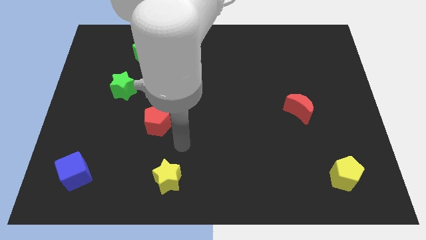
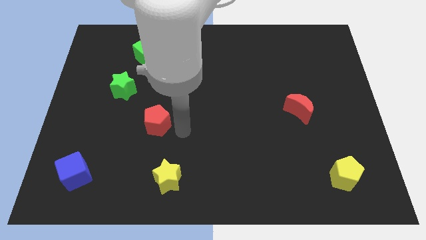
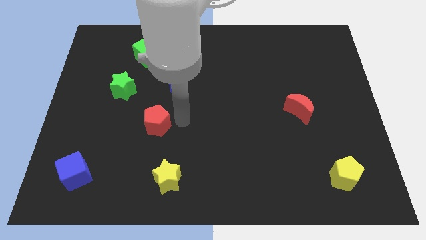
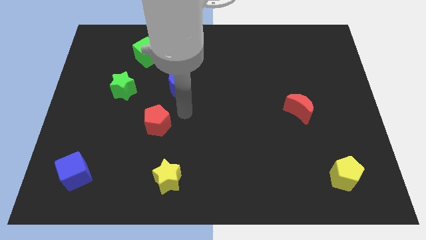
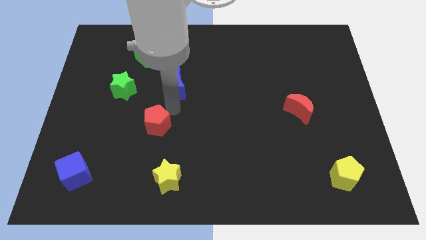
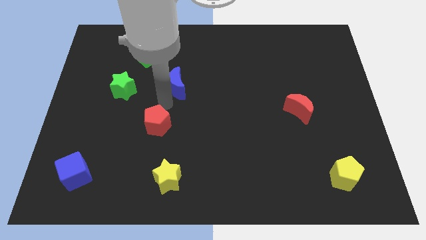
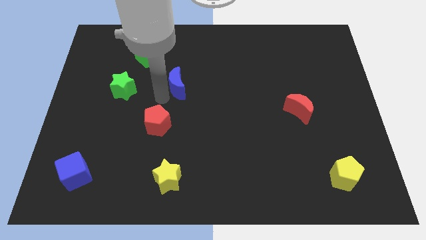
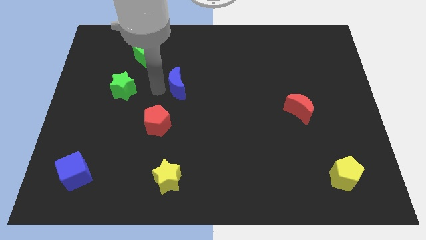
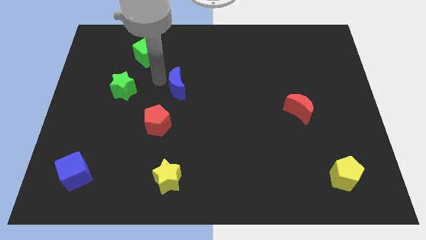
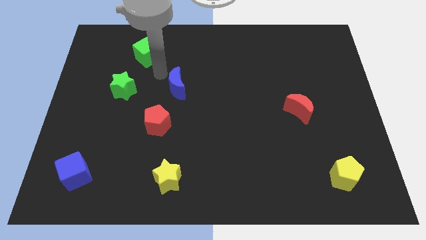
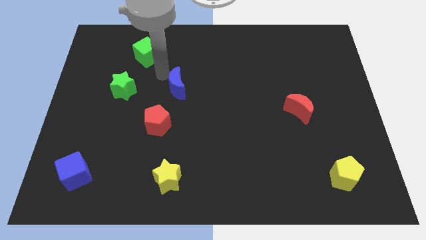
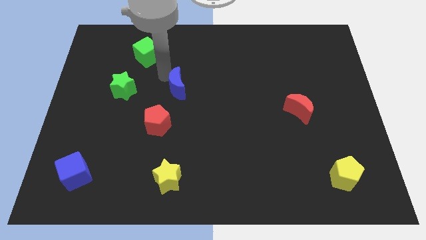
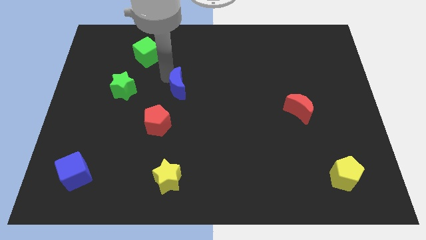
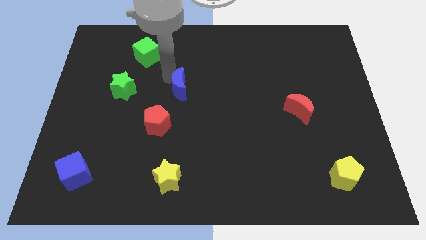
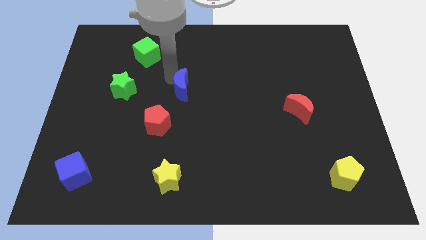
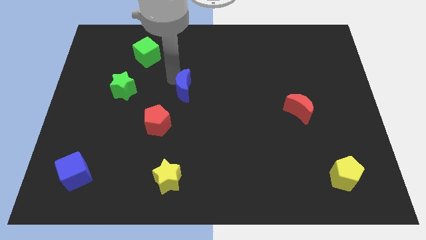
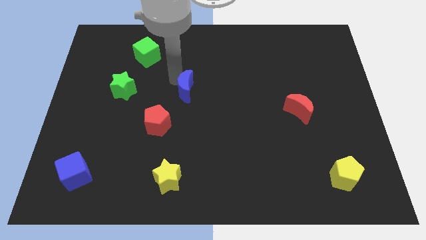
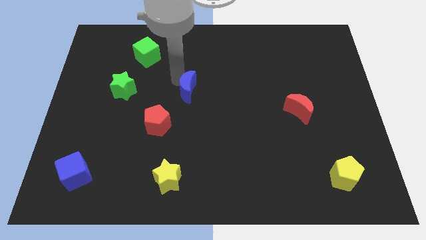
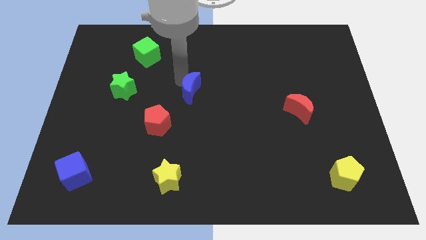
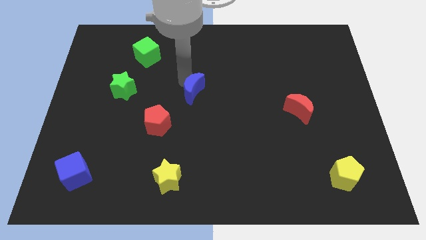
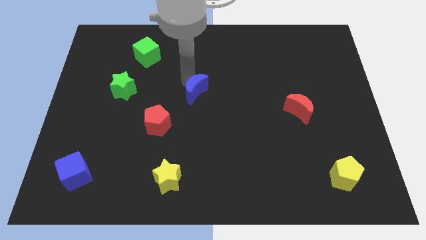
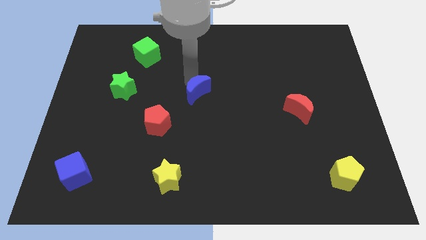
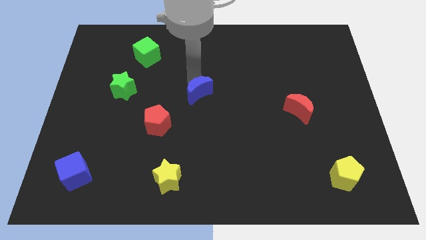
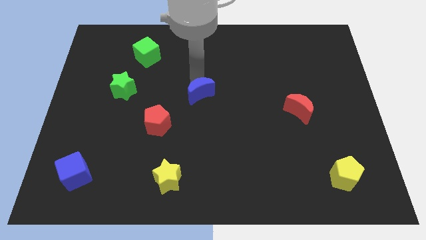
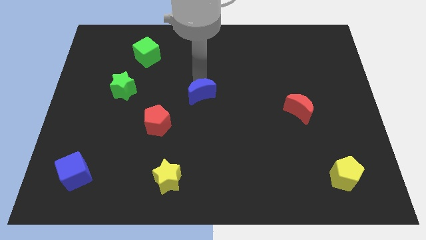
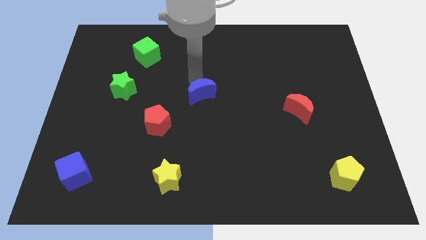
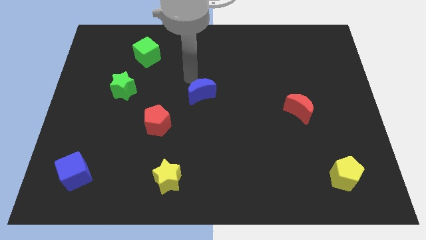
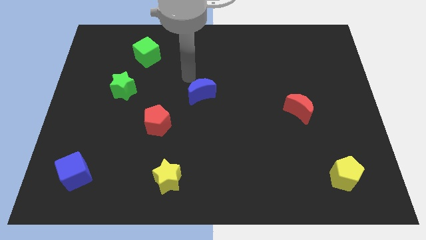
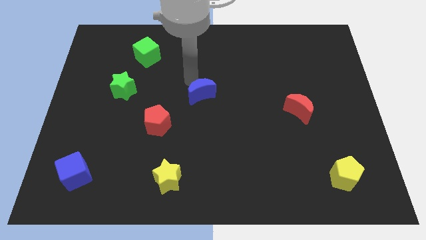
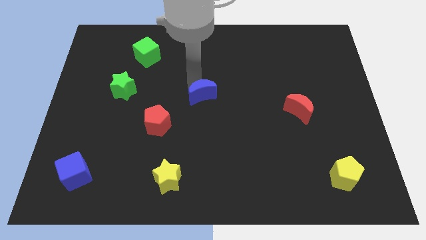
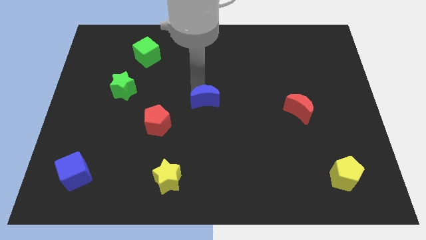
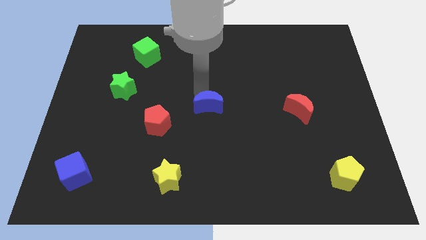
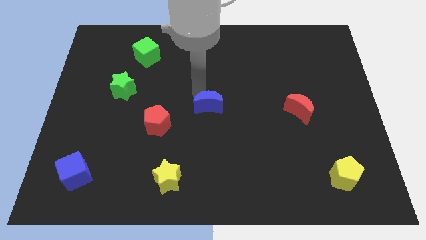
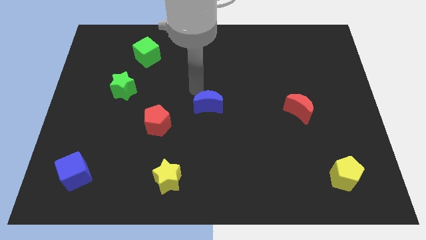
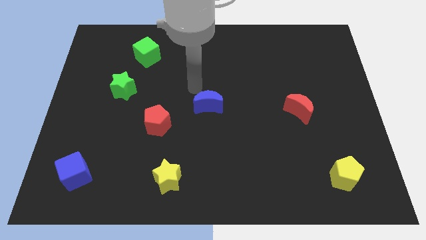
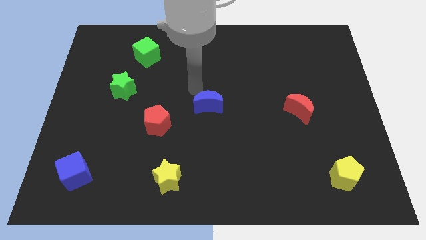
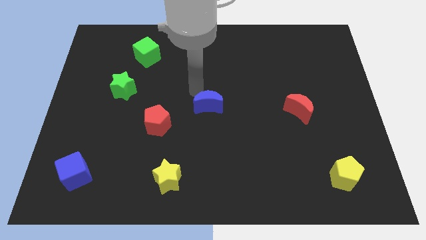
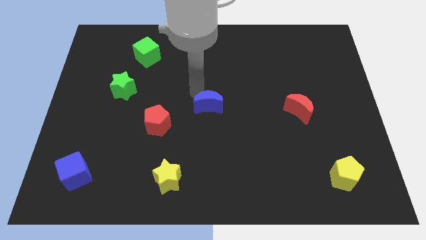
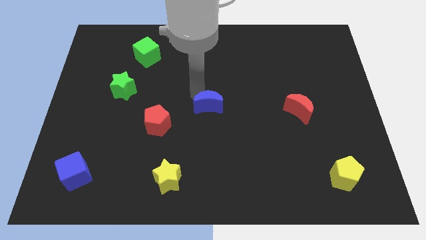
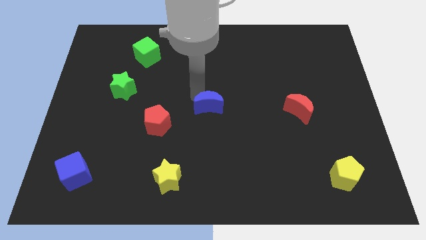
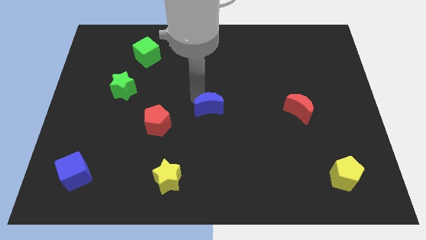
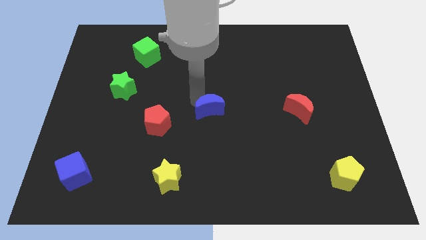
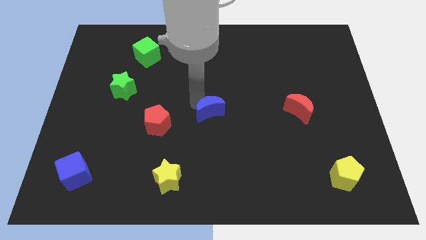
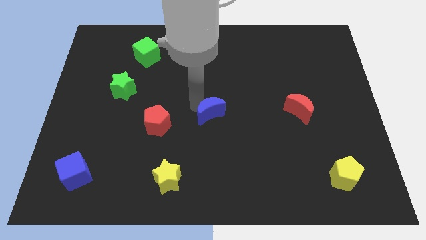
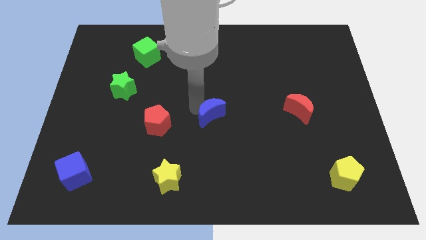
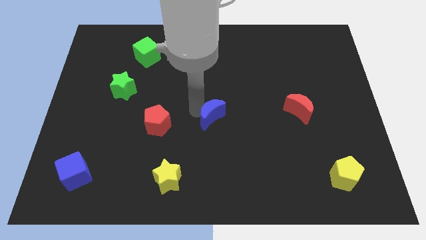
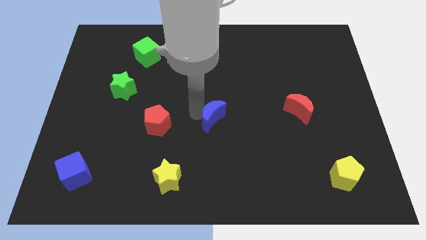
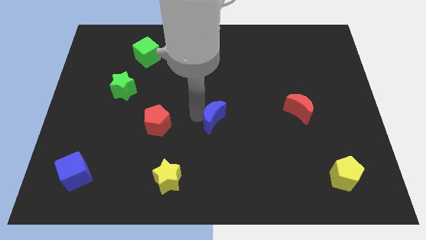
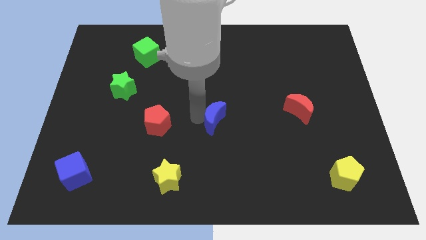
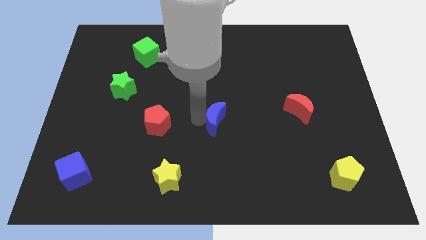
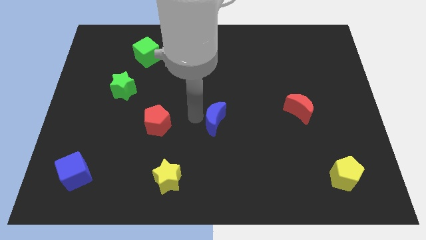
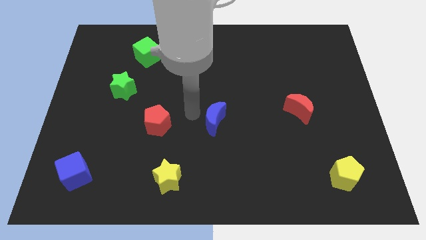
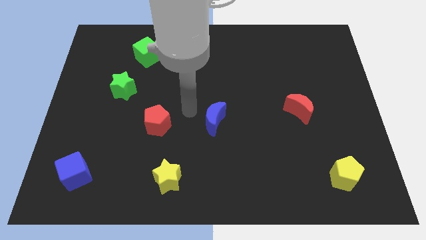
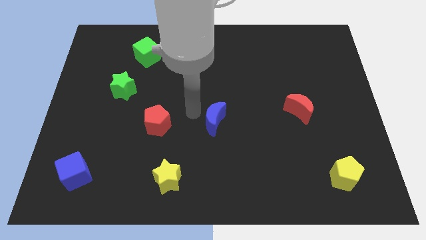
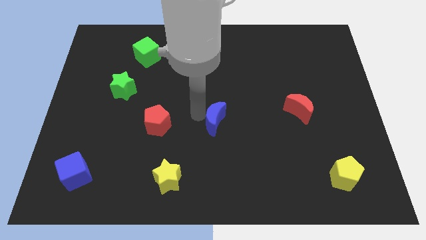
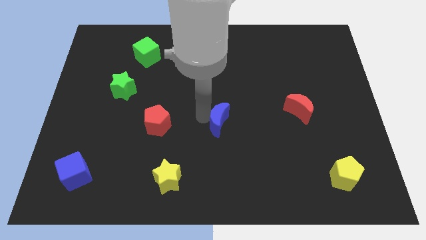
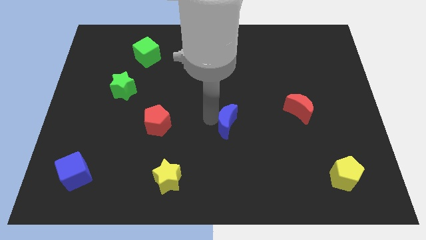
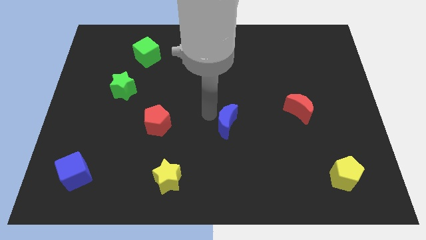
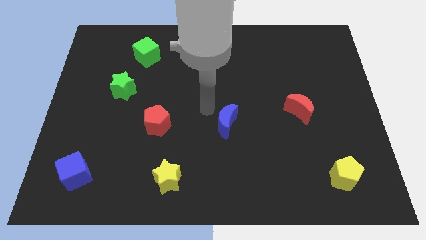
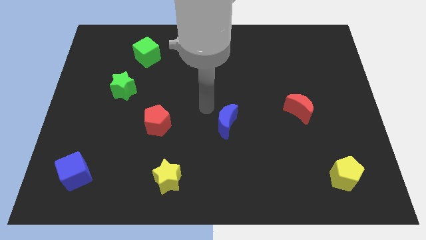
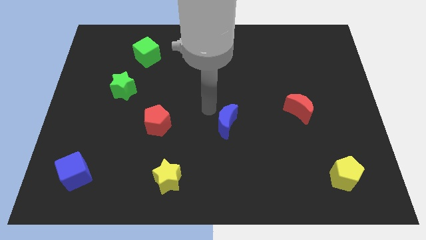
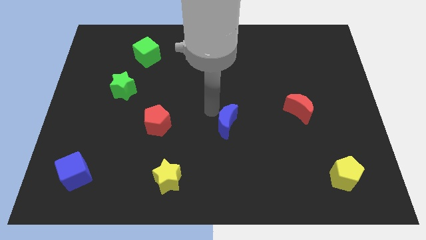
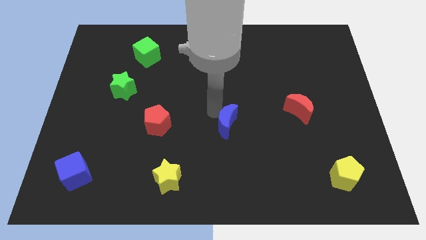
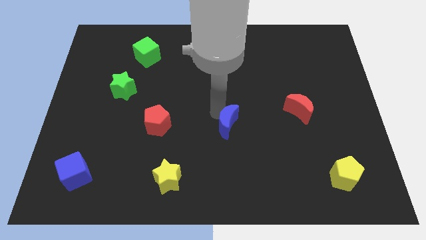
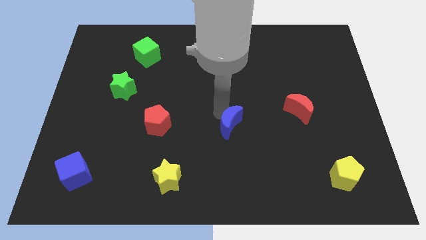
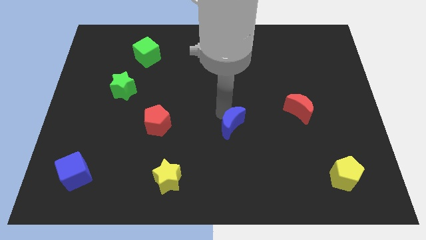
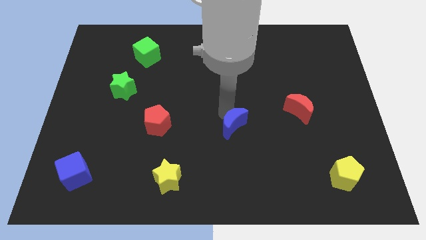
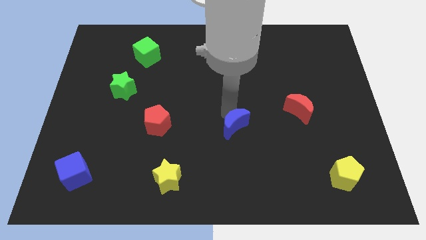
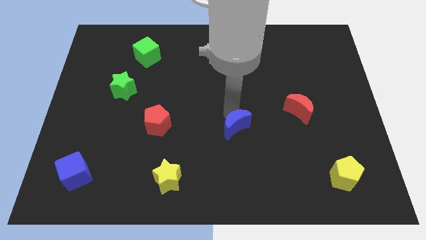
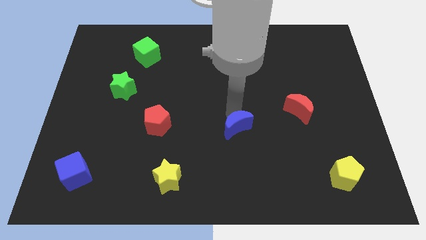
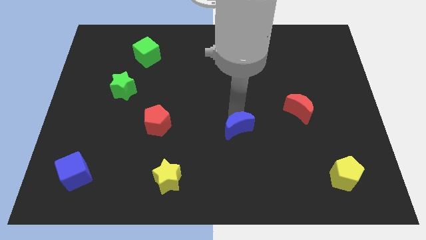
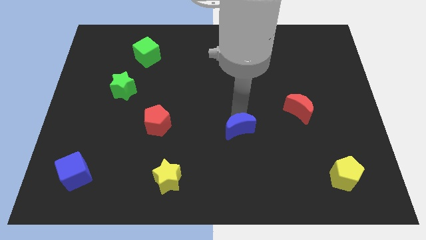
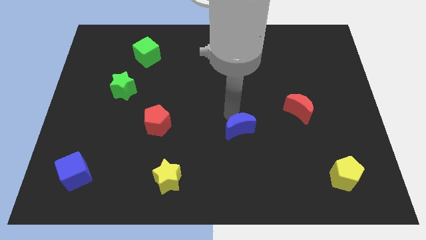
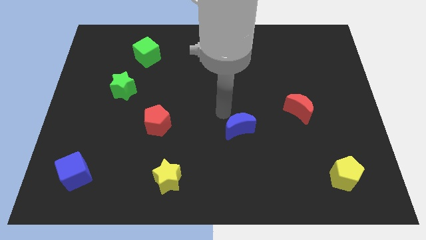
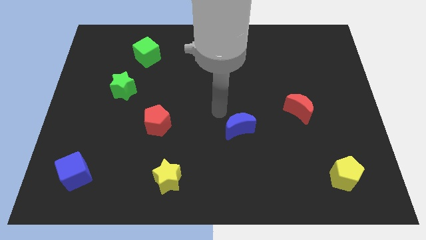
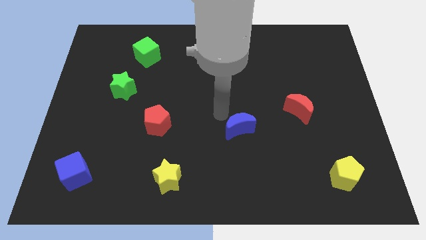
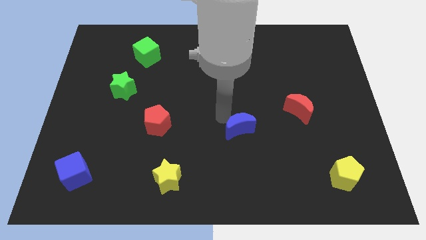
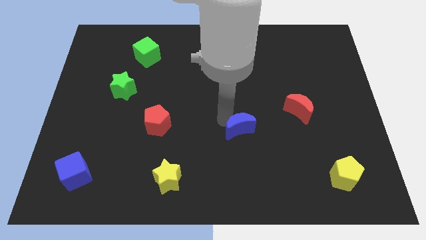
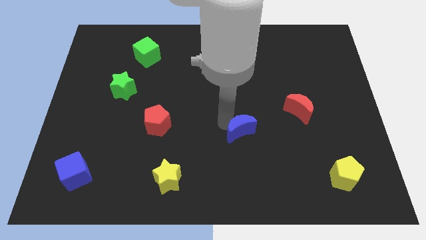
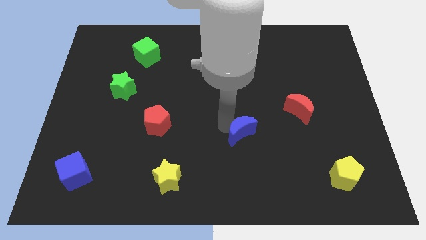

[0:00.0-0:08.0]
slide the blue moon diagonally downwards and right
